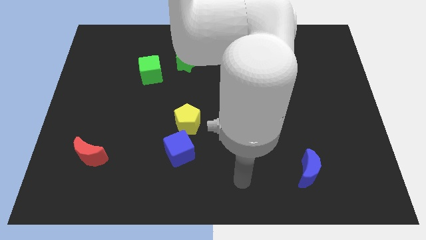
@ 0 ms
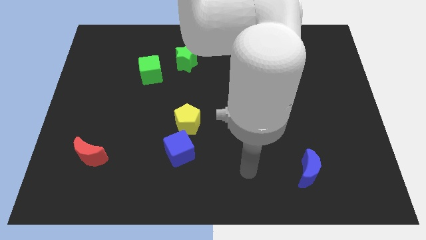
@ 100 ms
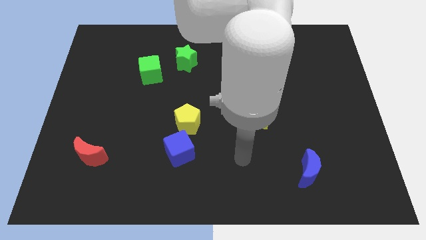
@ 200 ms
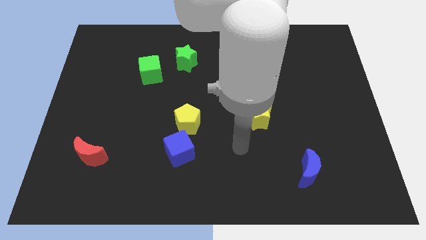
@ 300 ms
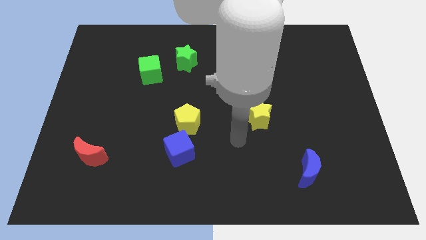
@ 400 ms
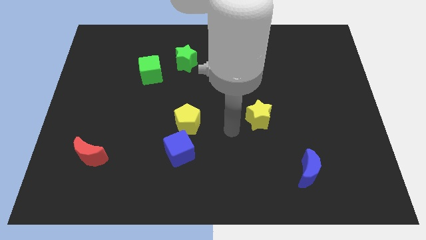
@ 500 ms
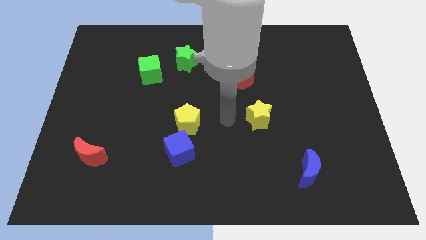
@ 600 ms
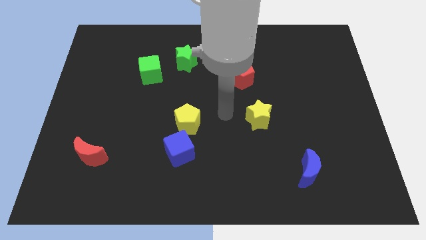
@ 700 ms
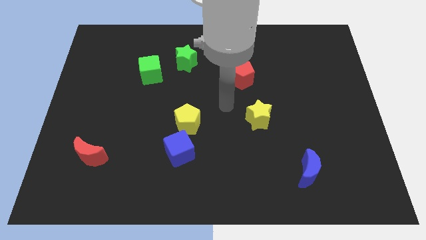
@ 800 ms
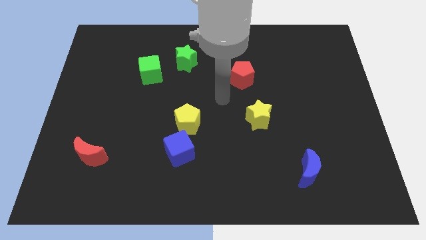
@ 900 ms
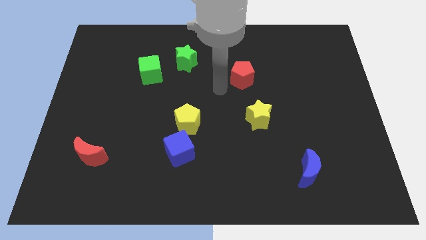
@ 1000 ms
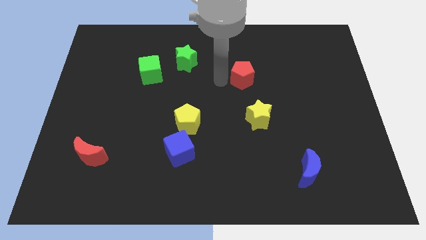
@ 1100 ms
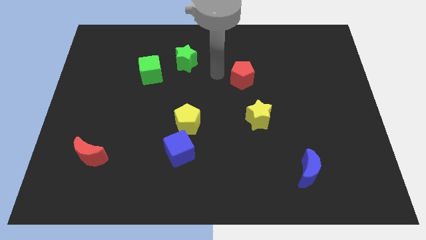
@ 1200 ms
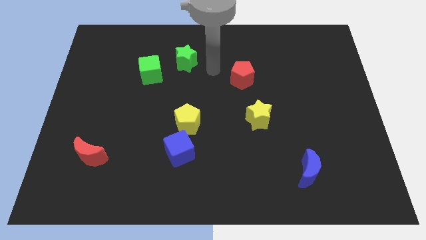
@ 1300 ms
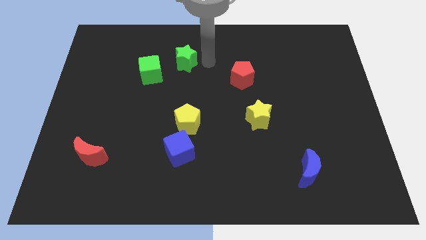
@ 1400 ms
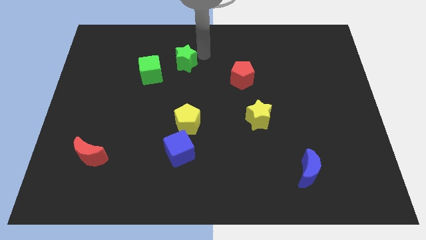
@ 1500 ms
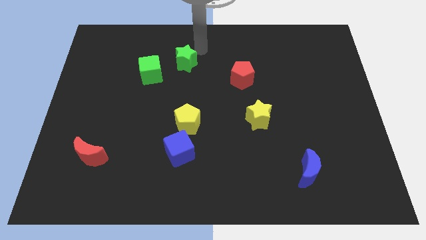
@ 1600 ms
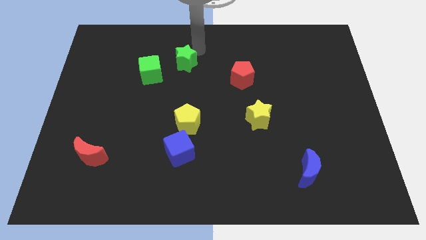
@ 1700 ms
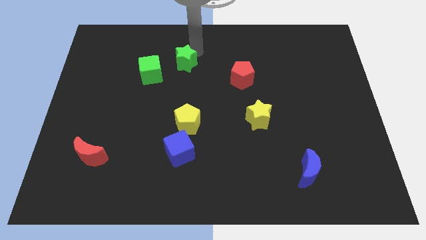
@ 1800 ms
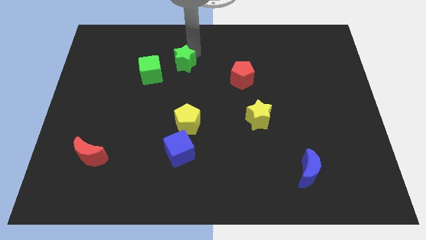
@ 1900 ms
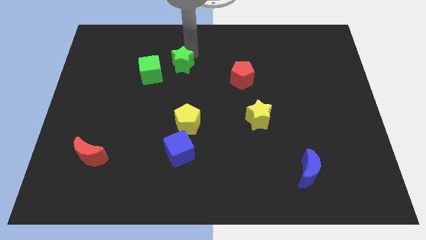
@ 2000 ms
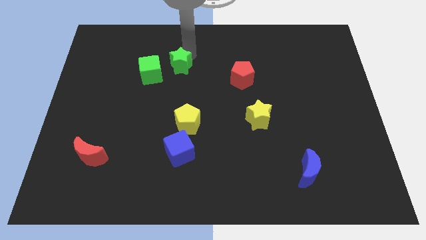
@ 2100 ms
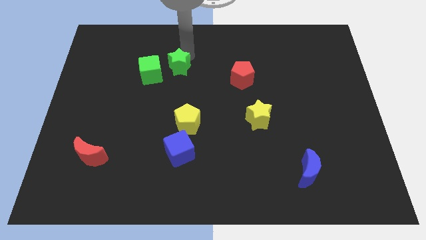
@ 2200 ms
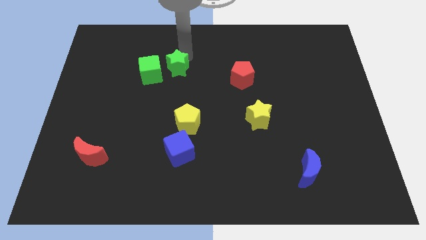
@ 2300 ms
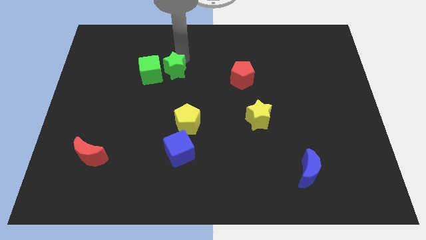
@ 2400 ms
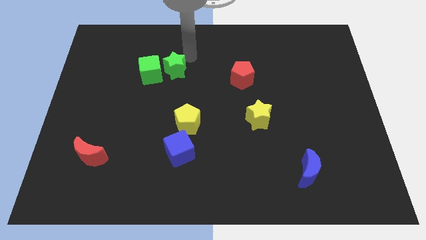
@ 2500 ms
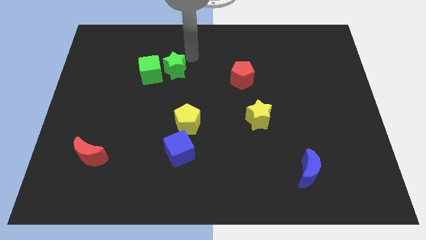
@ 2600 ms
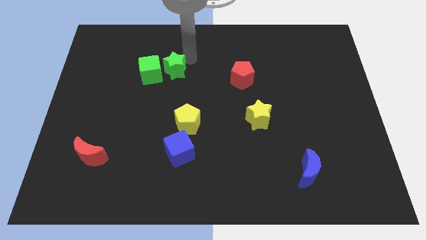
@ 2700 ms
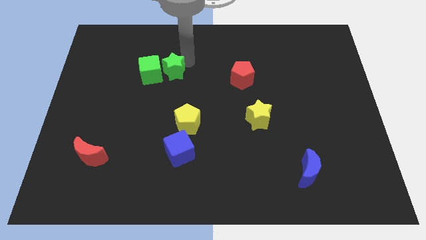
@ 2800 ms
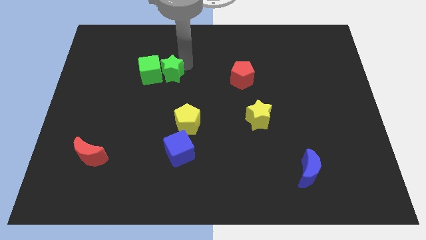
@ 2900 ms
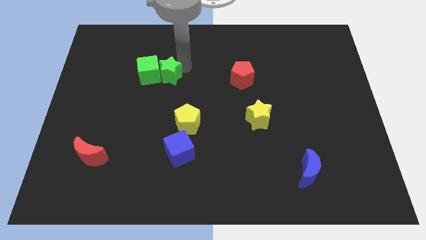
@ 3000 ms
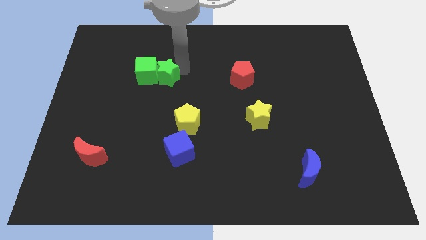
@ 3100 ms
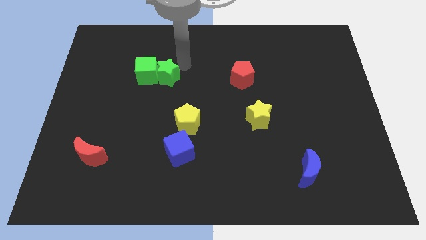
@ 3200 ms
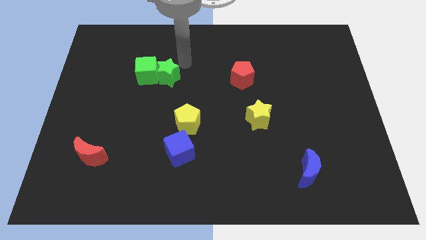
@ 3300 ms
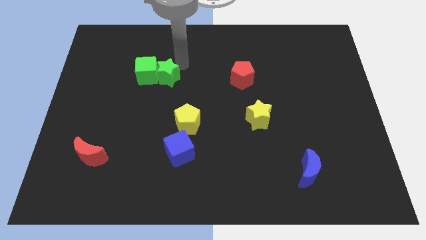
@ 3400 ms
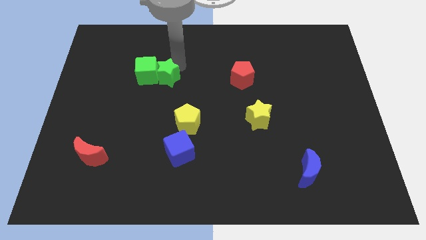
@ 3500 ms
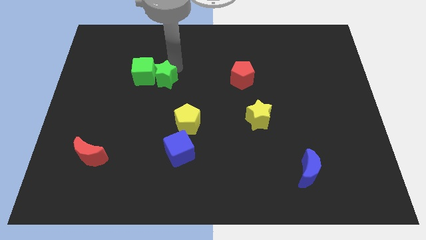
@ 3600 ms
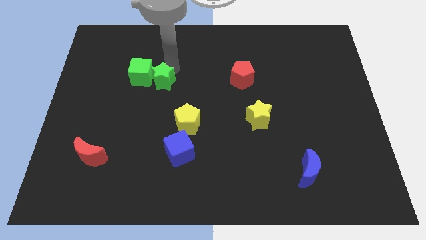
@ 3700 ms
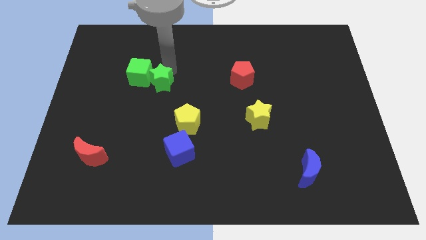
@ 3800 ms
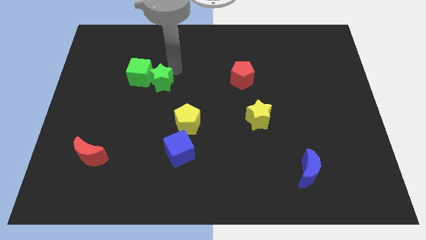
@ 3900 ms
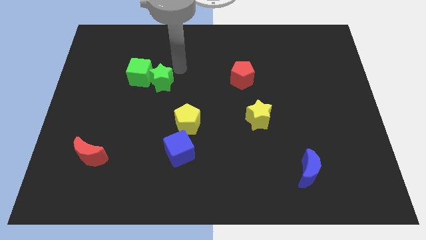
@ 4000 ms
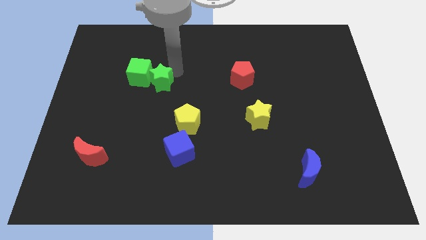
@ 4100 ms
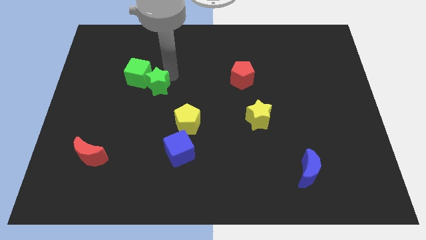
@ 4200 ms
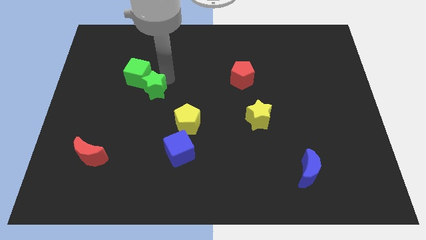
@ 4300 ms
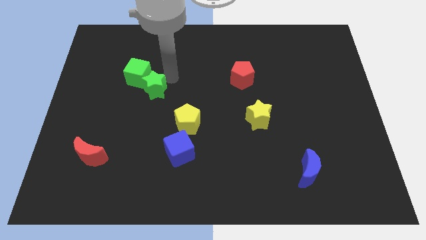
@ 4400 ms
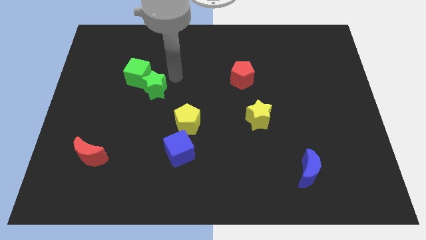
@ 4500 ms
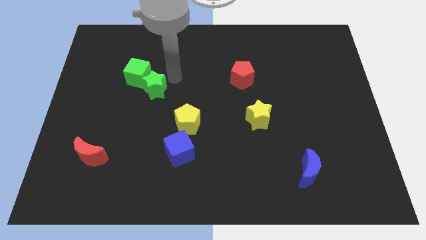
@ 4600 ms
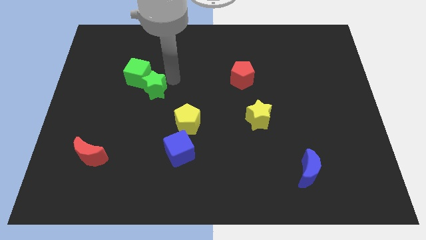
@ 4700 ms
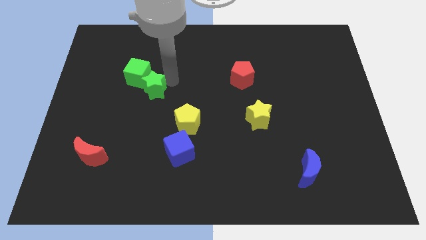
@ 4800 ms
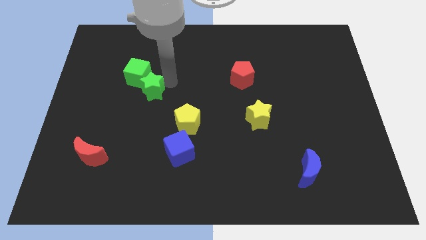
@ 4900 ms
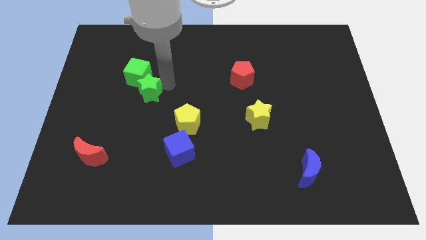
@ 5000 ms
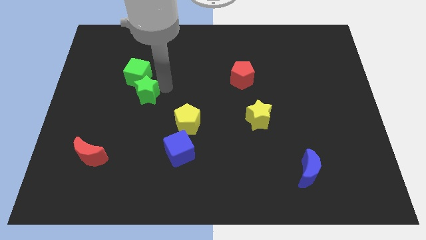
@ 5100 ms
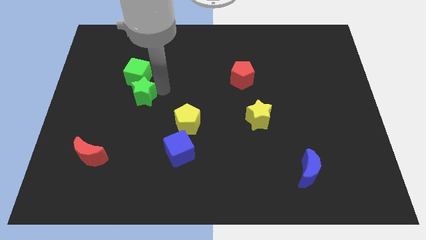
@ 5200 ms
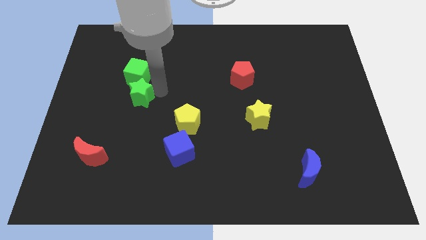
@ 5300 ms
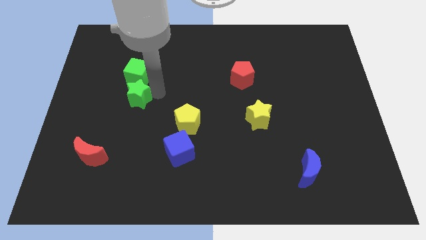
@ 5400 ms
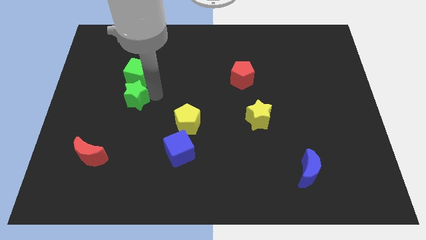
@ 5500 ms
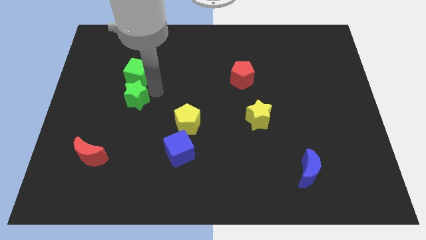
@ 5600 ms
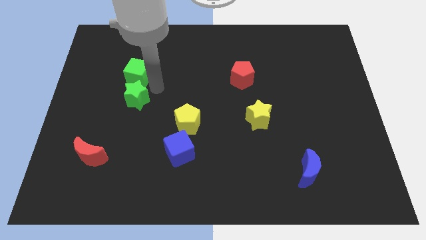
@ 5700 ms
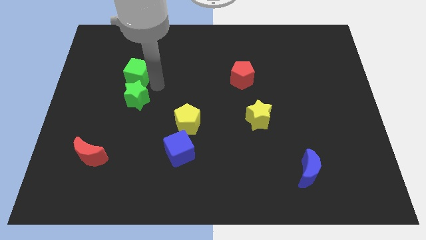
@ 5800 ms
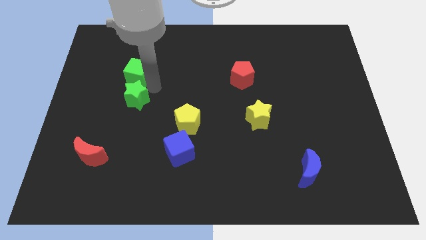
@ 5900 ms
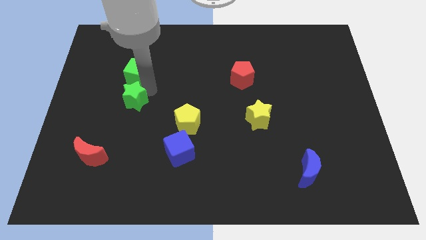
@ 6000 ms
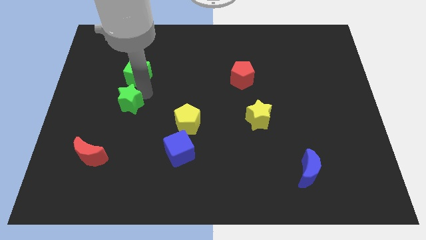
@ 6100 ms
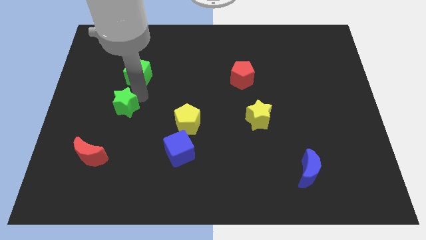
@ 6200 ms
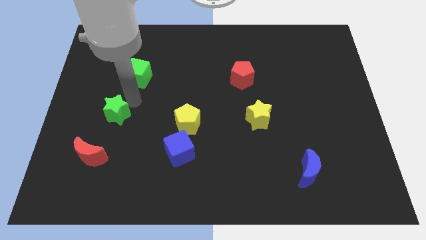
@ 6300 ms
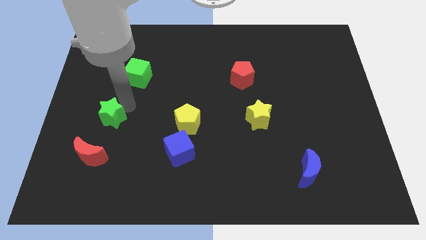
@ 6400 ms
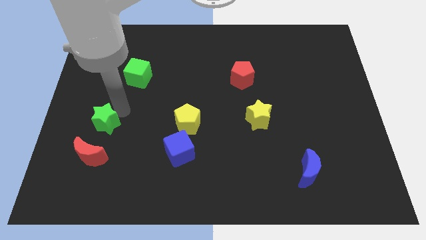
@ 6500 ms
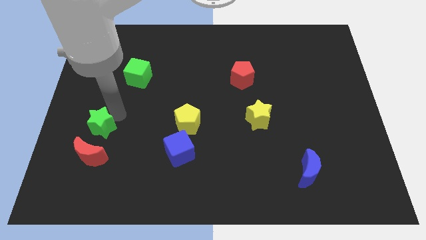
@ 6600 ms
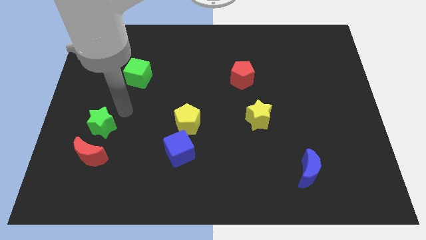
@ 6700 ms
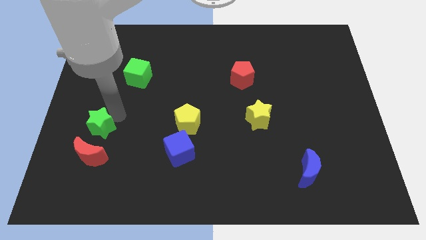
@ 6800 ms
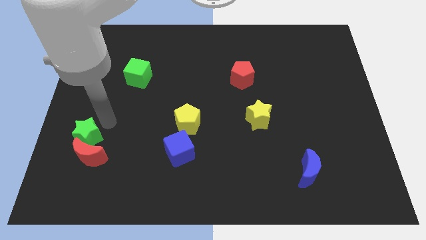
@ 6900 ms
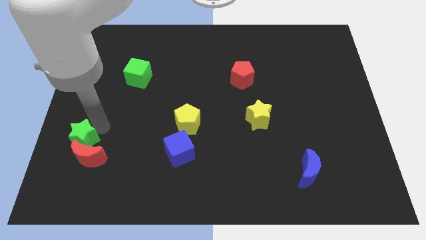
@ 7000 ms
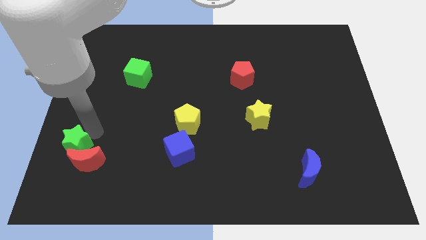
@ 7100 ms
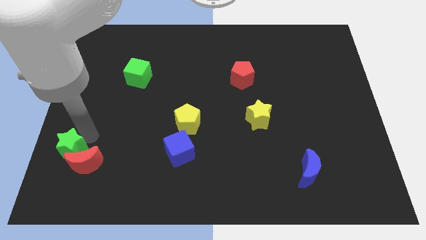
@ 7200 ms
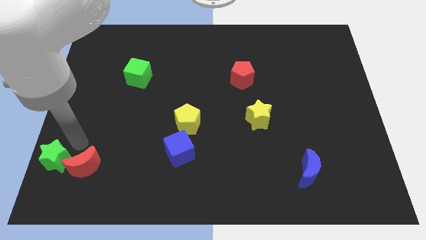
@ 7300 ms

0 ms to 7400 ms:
move the green star to the lower left corner
